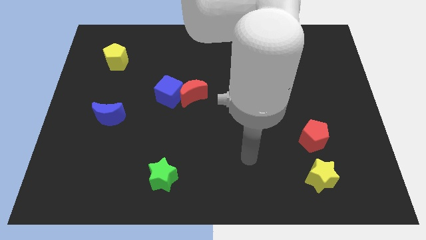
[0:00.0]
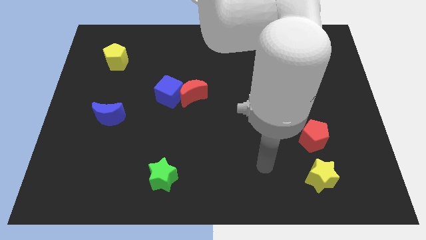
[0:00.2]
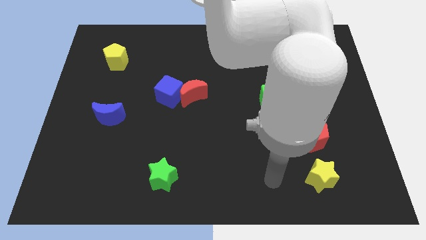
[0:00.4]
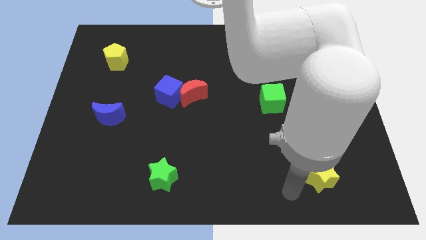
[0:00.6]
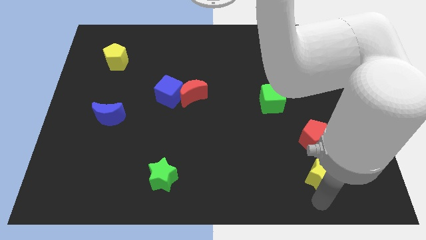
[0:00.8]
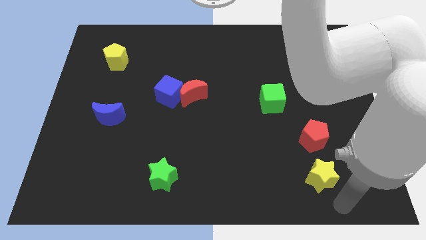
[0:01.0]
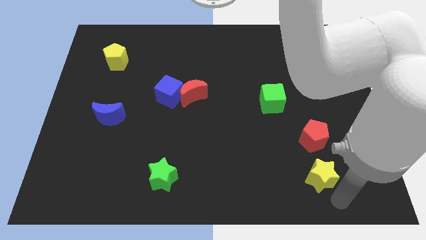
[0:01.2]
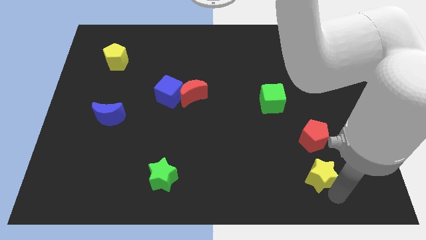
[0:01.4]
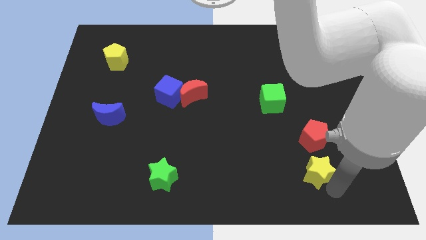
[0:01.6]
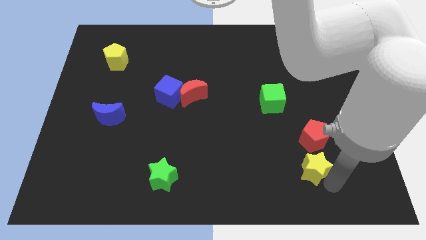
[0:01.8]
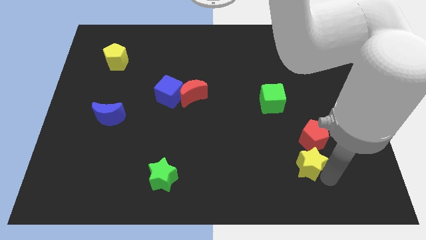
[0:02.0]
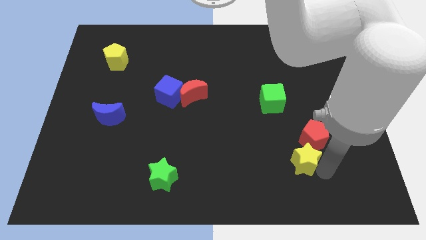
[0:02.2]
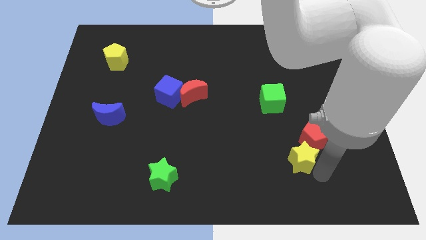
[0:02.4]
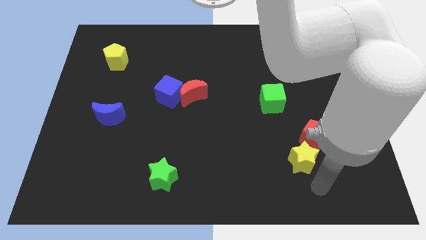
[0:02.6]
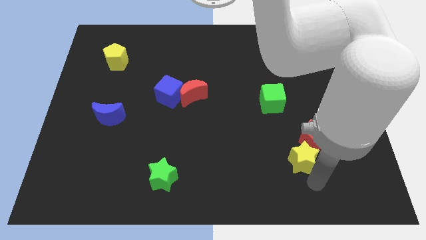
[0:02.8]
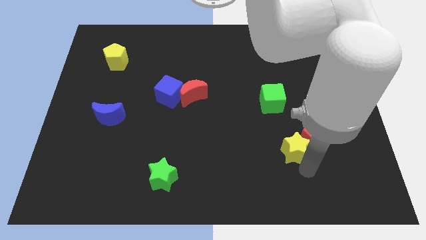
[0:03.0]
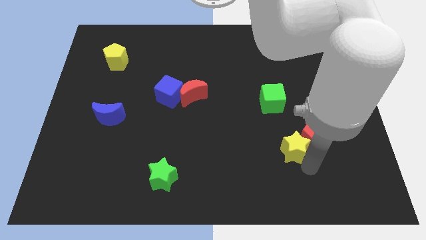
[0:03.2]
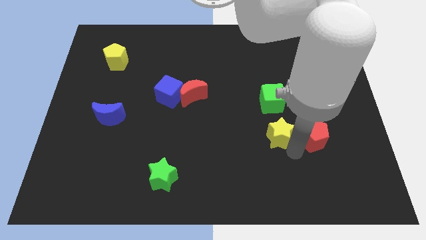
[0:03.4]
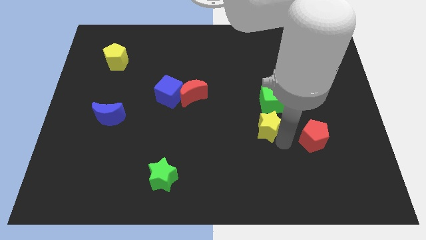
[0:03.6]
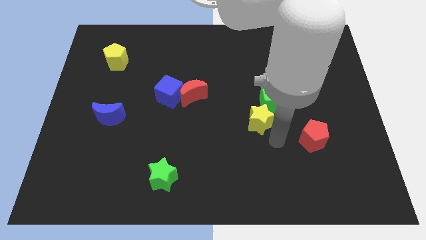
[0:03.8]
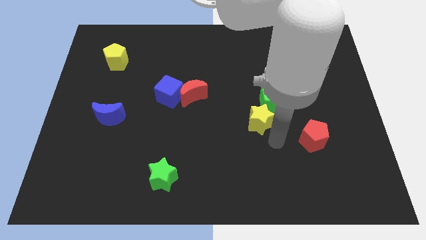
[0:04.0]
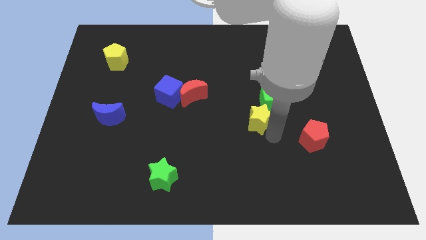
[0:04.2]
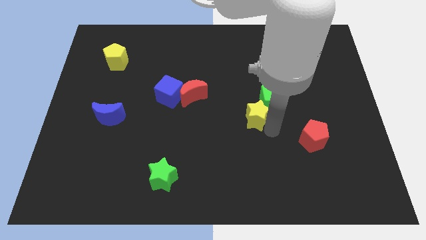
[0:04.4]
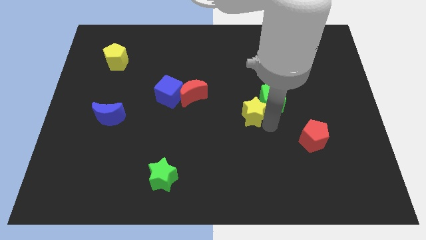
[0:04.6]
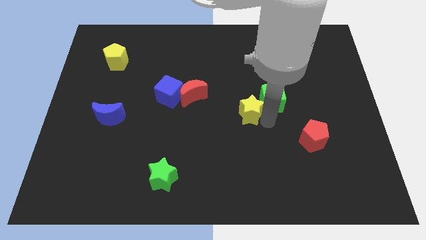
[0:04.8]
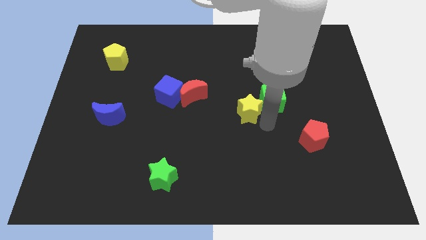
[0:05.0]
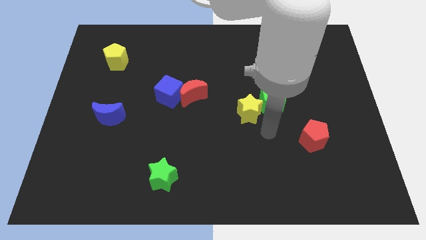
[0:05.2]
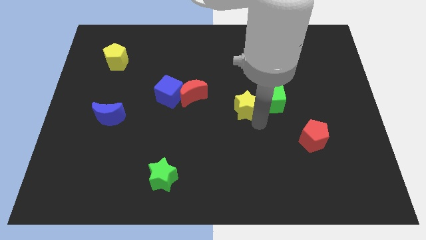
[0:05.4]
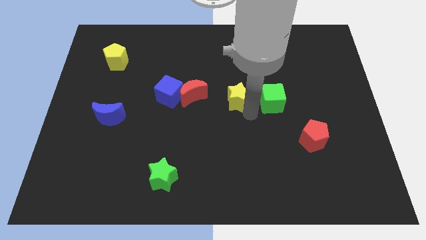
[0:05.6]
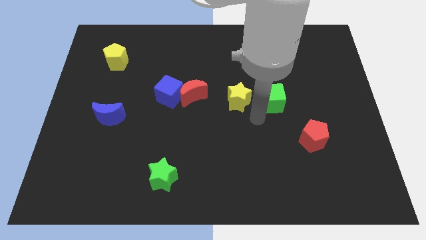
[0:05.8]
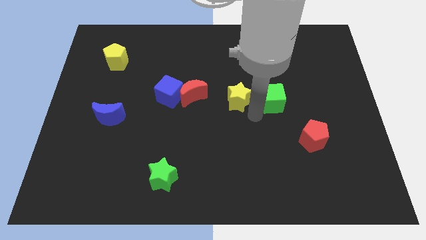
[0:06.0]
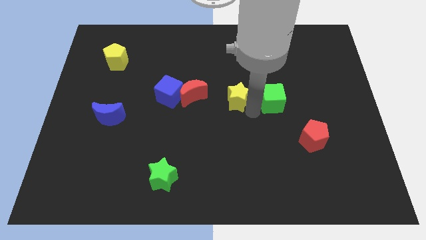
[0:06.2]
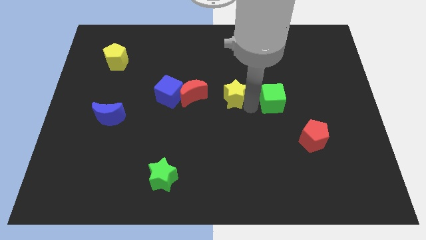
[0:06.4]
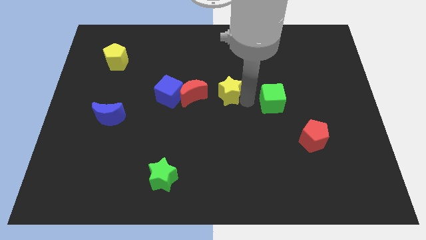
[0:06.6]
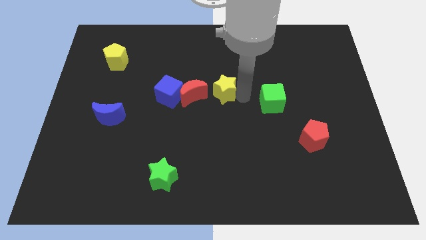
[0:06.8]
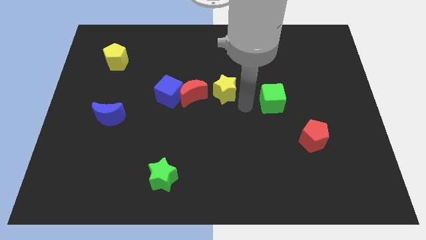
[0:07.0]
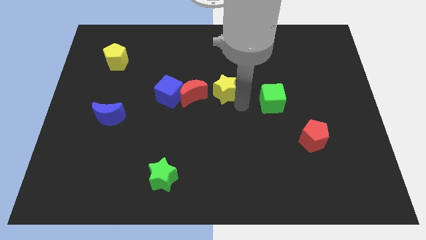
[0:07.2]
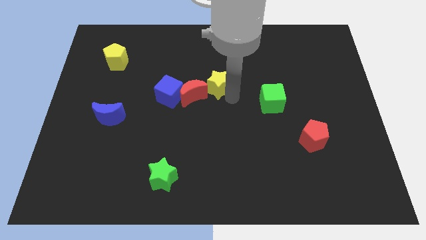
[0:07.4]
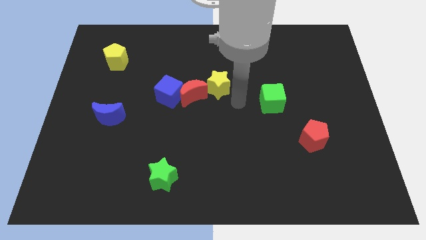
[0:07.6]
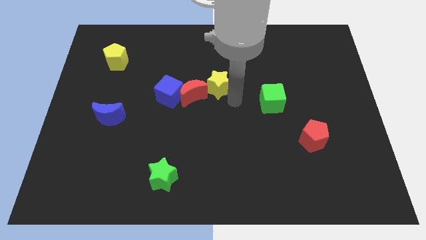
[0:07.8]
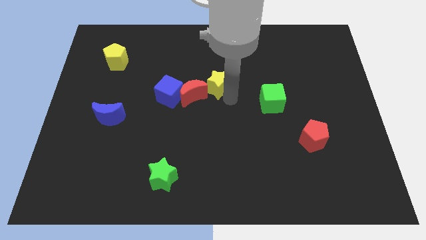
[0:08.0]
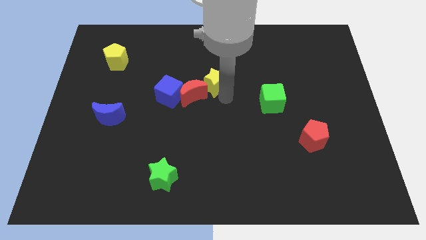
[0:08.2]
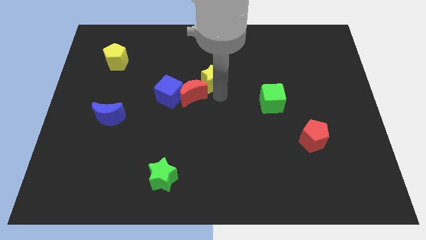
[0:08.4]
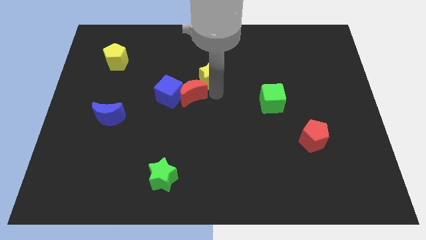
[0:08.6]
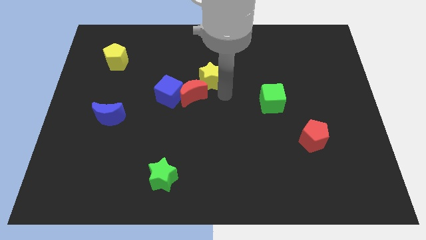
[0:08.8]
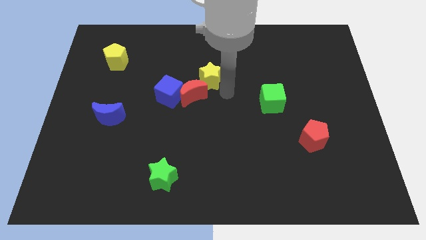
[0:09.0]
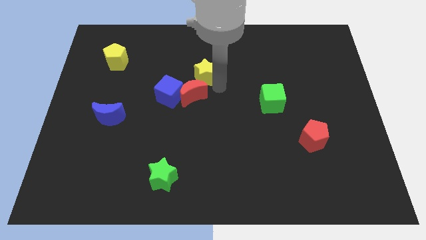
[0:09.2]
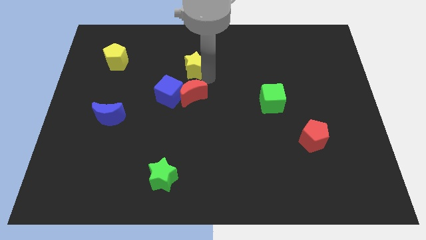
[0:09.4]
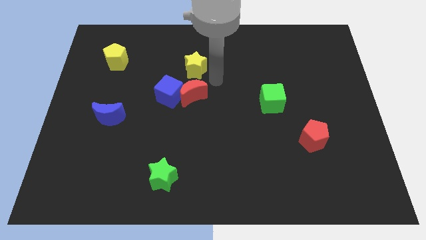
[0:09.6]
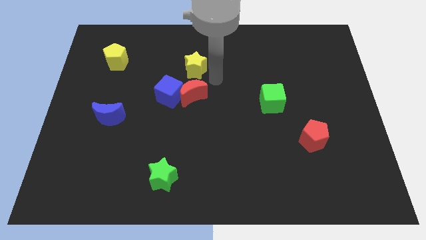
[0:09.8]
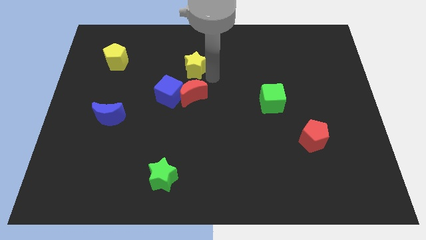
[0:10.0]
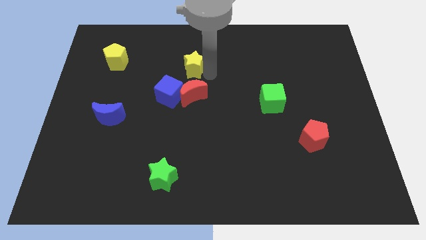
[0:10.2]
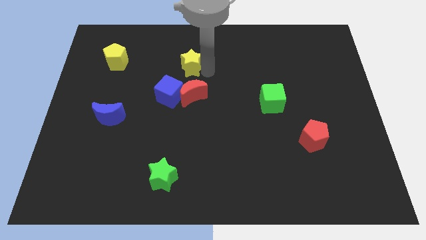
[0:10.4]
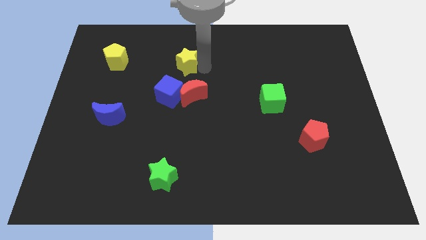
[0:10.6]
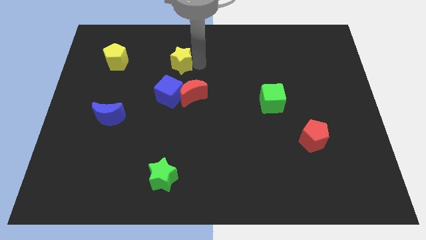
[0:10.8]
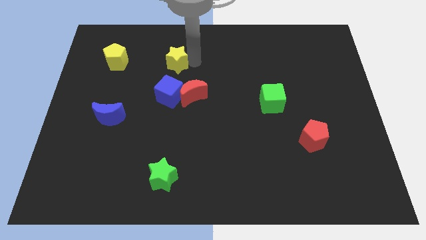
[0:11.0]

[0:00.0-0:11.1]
push the yellow star just right of the yellow pentagon

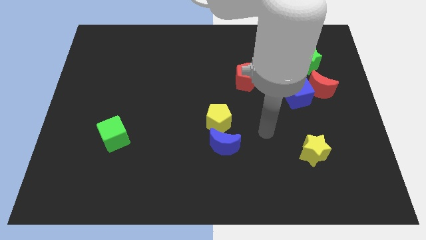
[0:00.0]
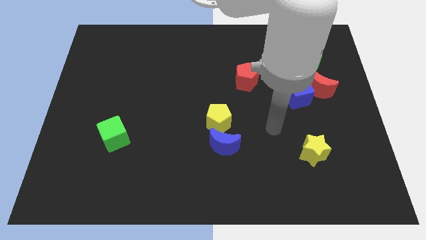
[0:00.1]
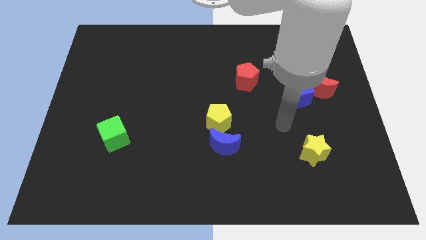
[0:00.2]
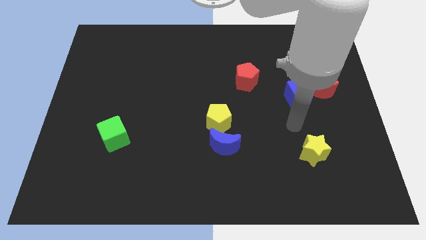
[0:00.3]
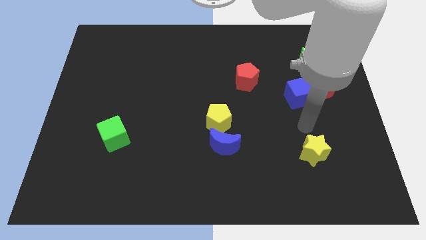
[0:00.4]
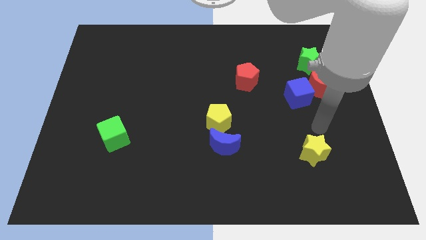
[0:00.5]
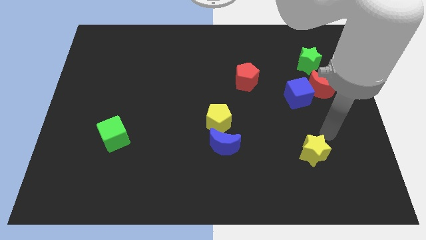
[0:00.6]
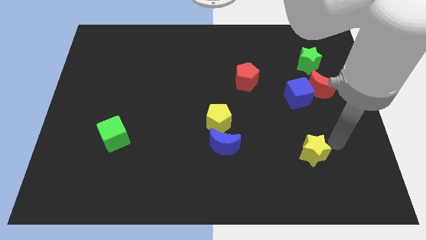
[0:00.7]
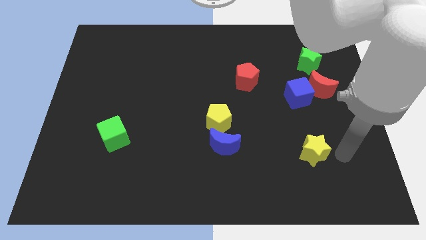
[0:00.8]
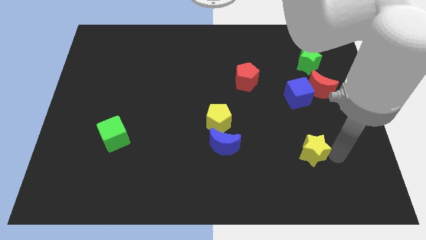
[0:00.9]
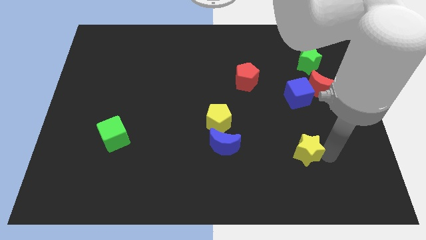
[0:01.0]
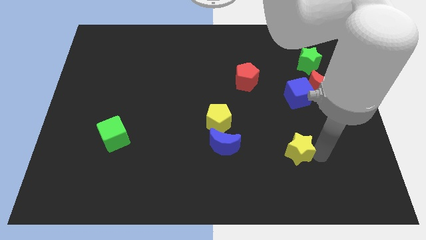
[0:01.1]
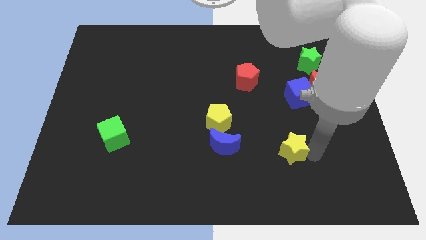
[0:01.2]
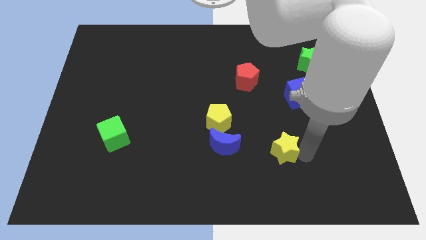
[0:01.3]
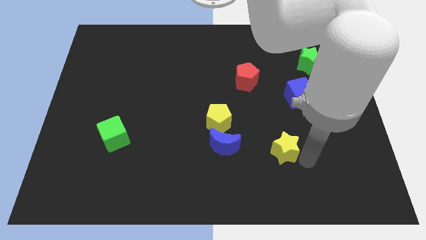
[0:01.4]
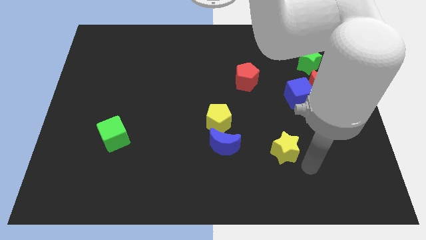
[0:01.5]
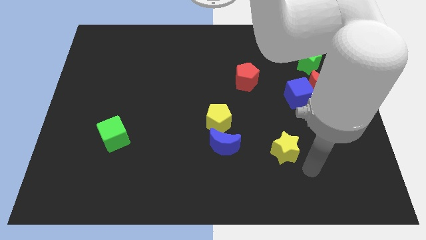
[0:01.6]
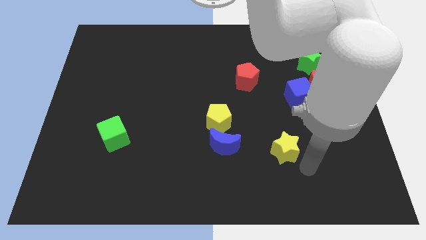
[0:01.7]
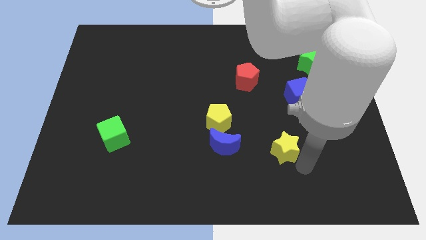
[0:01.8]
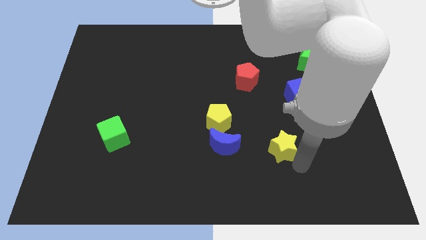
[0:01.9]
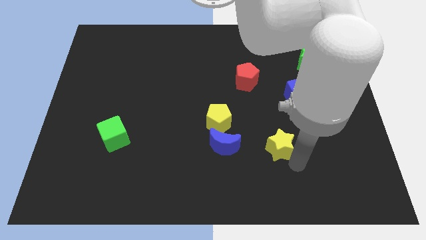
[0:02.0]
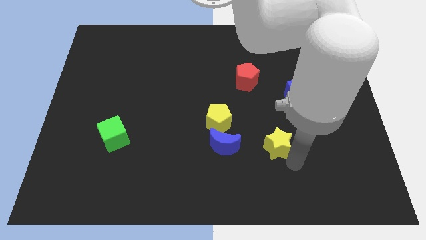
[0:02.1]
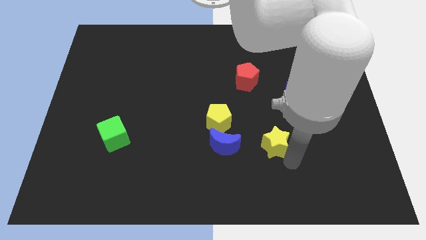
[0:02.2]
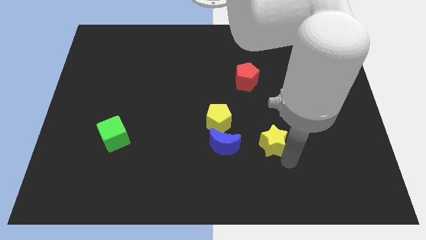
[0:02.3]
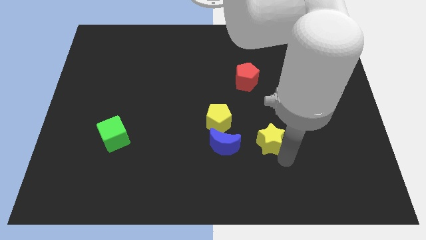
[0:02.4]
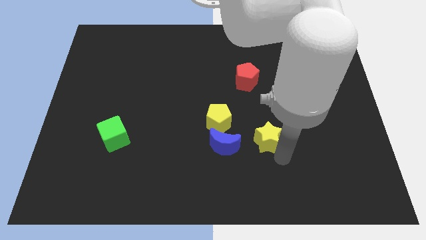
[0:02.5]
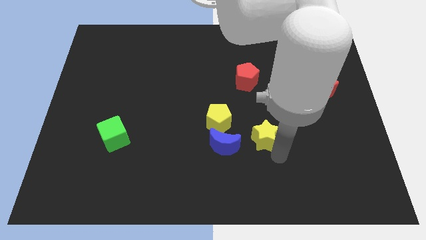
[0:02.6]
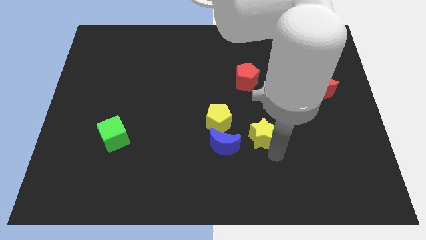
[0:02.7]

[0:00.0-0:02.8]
move the yellow star to the top right of the blue moon
